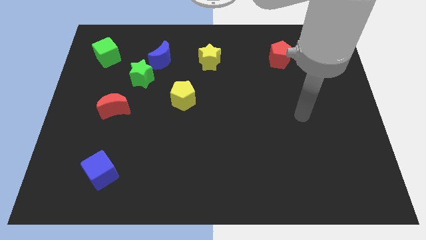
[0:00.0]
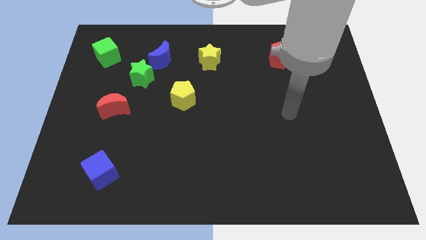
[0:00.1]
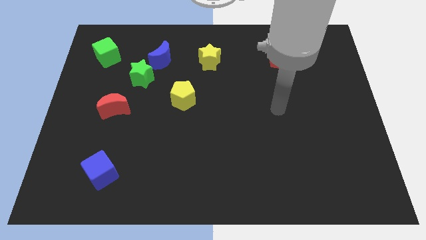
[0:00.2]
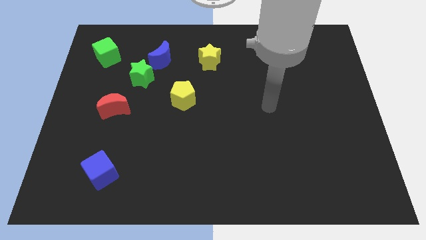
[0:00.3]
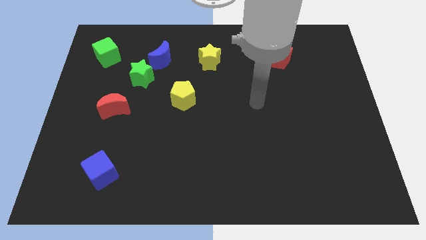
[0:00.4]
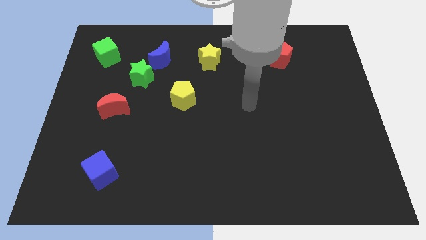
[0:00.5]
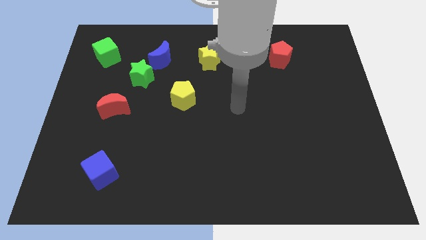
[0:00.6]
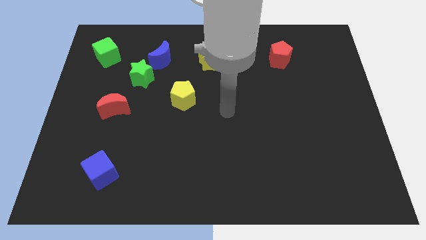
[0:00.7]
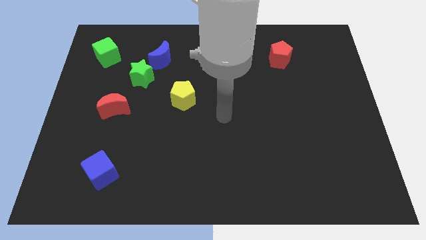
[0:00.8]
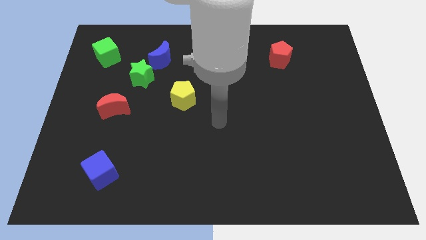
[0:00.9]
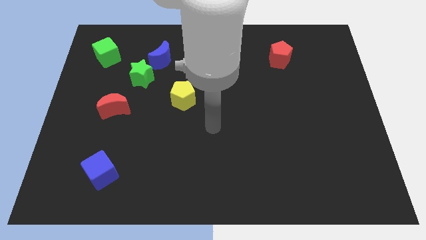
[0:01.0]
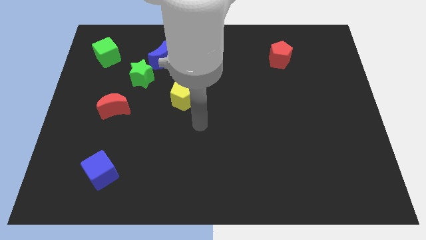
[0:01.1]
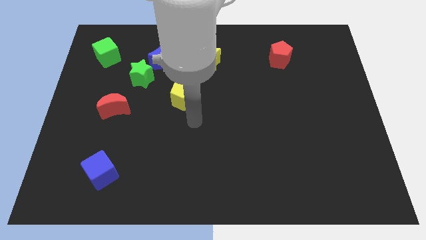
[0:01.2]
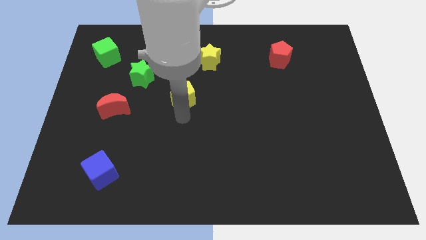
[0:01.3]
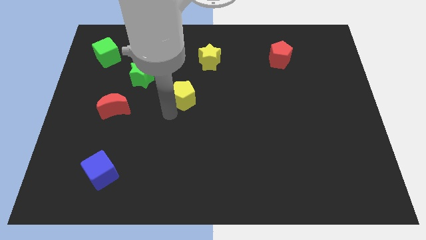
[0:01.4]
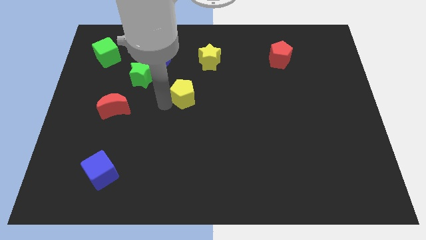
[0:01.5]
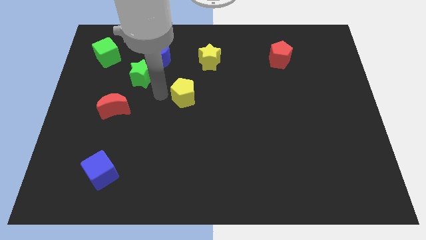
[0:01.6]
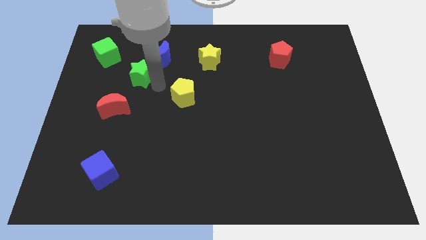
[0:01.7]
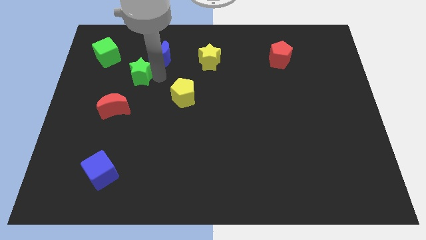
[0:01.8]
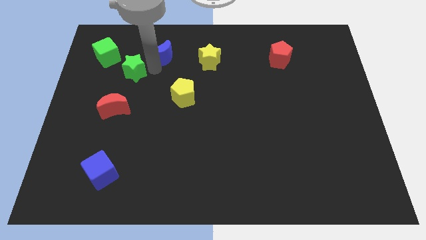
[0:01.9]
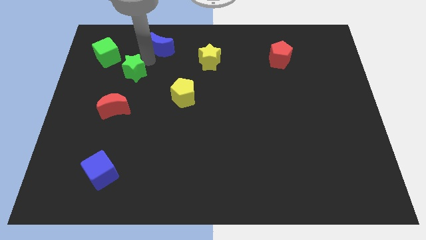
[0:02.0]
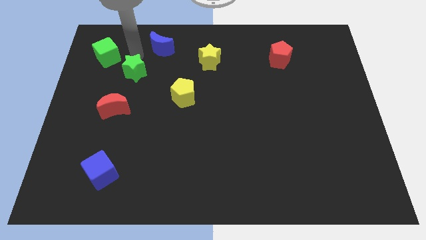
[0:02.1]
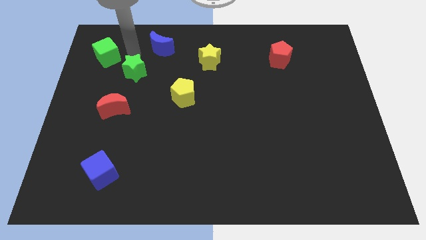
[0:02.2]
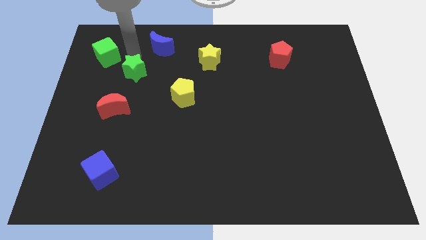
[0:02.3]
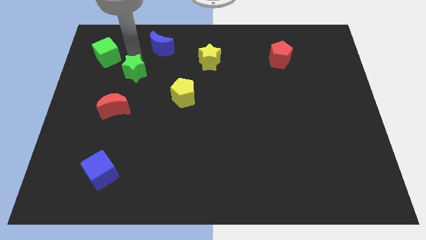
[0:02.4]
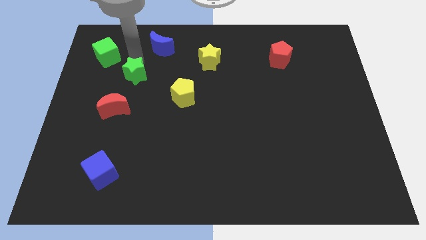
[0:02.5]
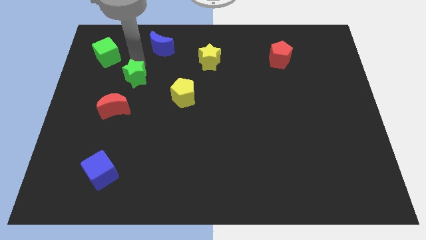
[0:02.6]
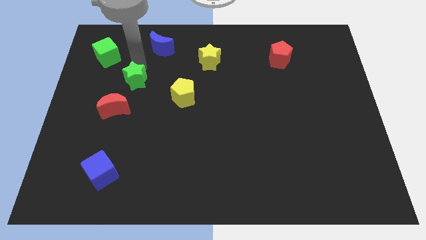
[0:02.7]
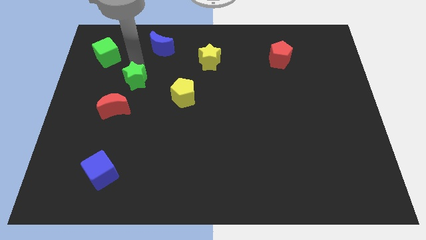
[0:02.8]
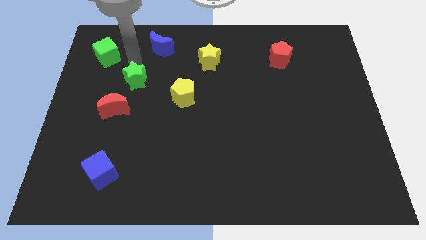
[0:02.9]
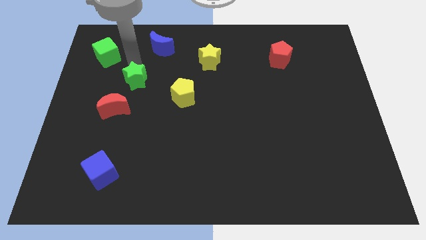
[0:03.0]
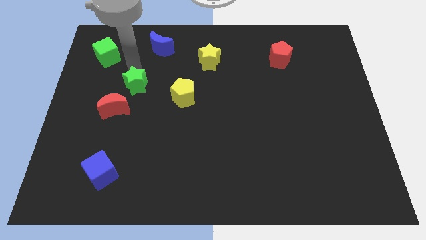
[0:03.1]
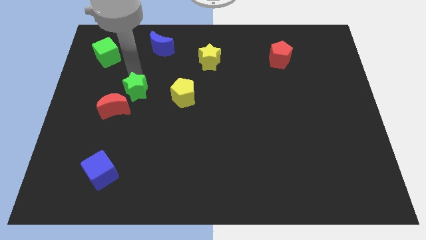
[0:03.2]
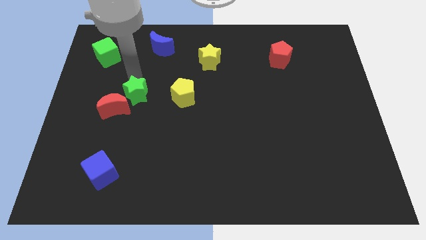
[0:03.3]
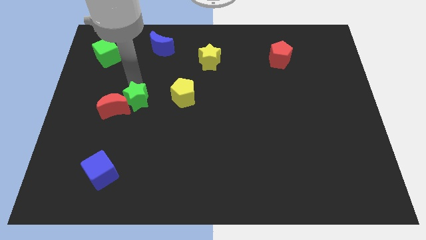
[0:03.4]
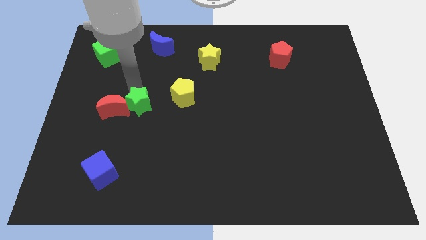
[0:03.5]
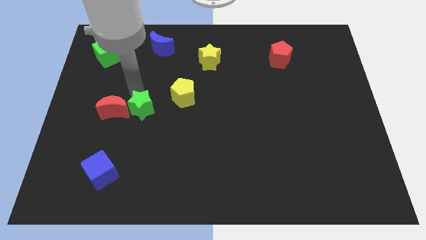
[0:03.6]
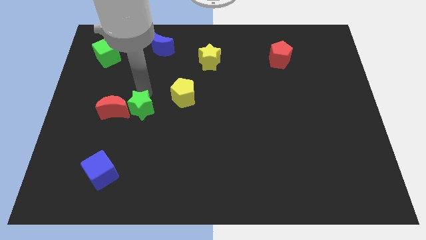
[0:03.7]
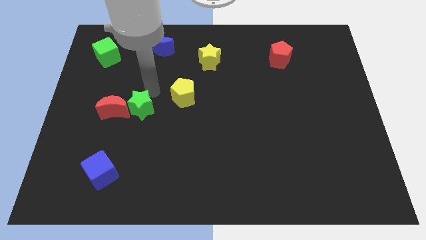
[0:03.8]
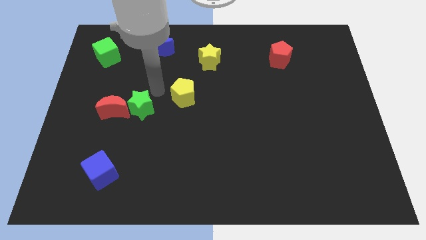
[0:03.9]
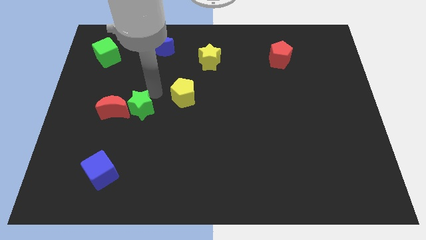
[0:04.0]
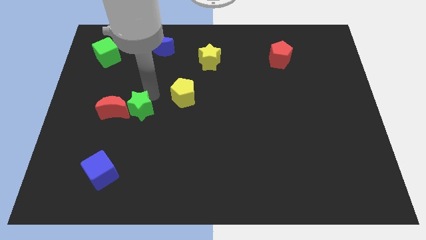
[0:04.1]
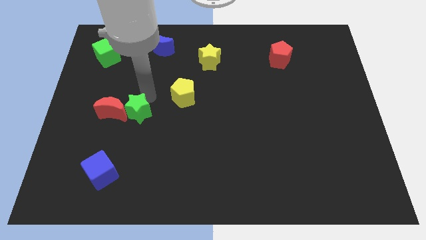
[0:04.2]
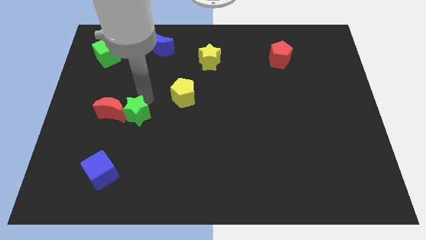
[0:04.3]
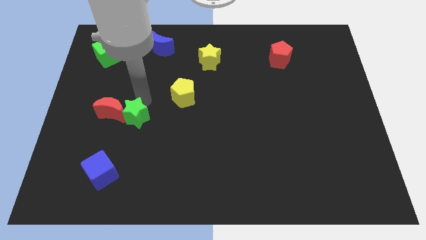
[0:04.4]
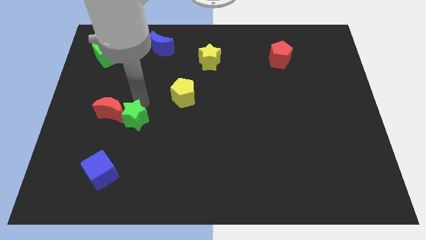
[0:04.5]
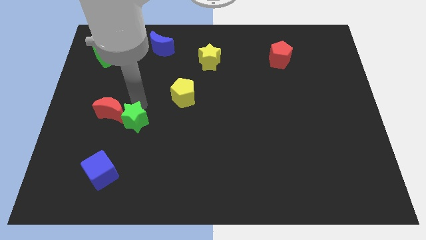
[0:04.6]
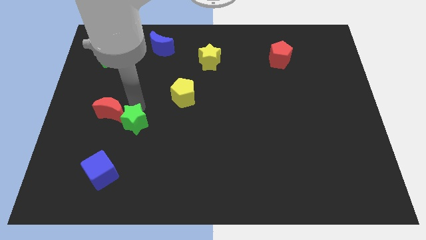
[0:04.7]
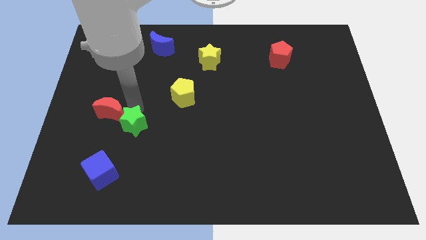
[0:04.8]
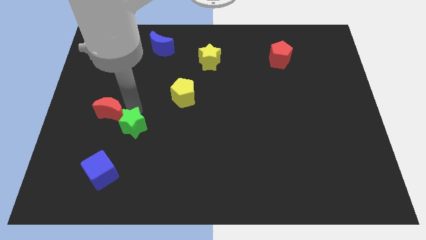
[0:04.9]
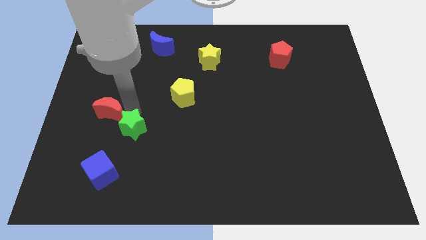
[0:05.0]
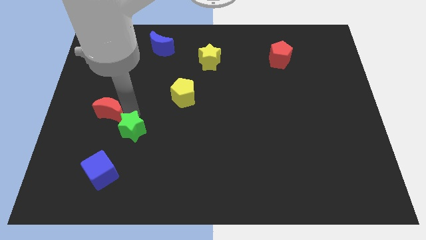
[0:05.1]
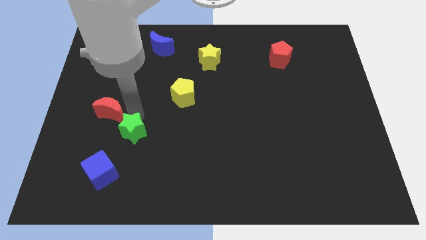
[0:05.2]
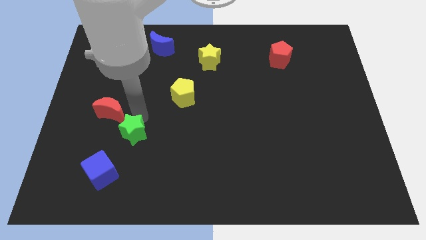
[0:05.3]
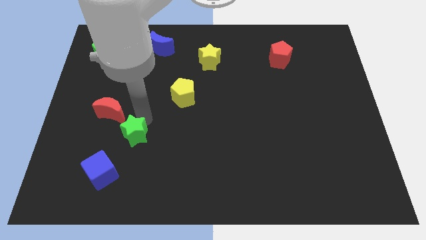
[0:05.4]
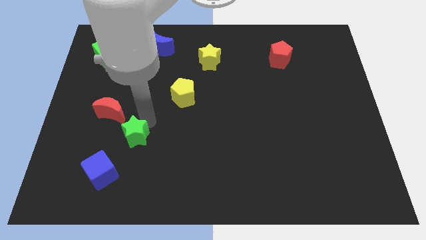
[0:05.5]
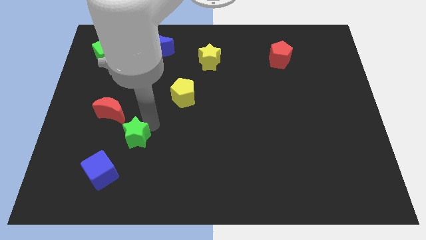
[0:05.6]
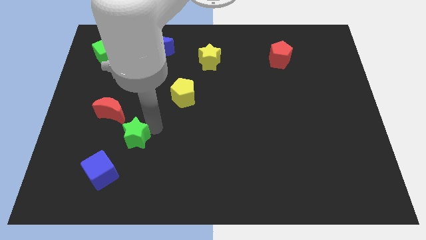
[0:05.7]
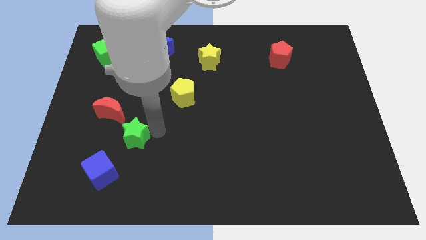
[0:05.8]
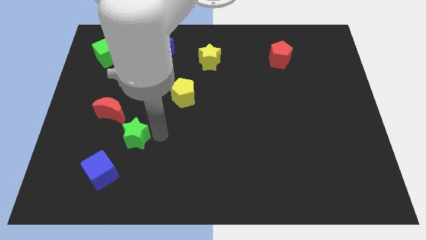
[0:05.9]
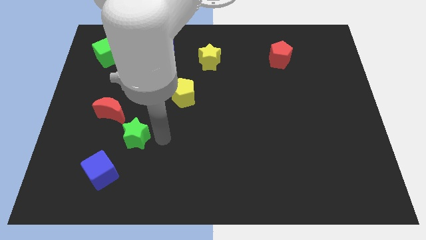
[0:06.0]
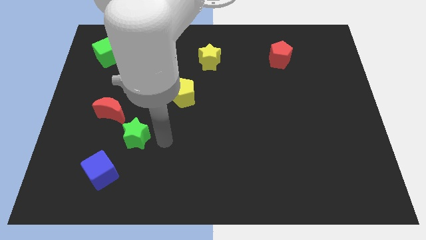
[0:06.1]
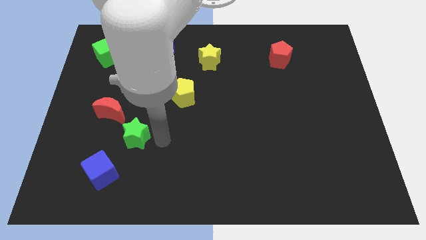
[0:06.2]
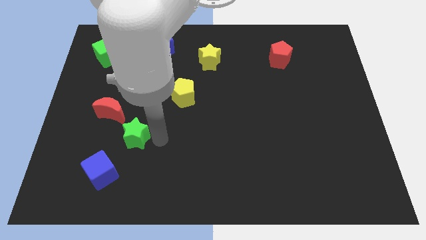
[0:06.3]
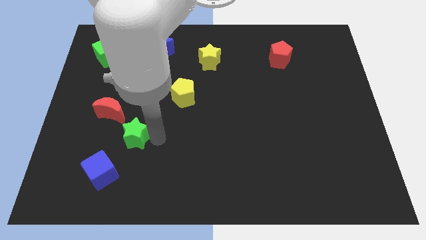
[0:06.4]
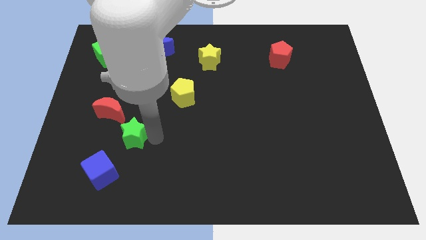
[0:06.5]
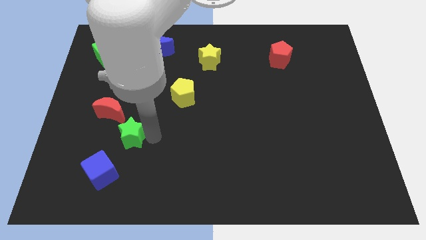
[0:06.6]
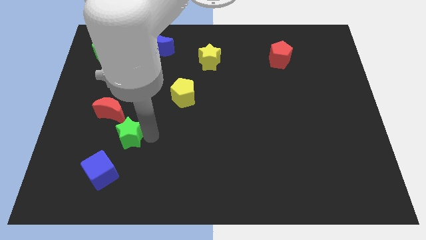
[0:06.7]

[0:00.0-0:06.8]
slide the green star below the red moon

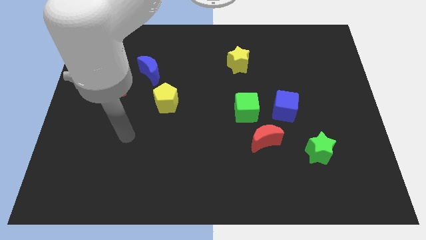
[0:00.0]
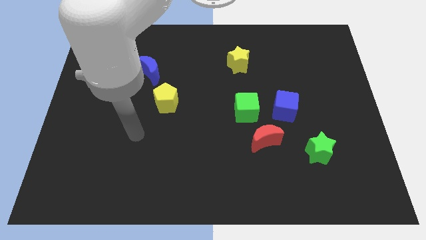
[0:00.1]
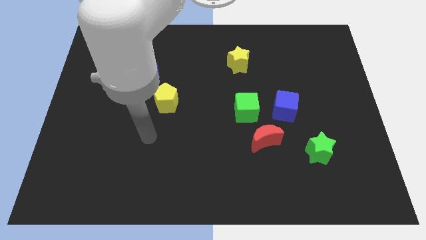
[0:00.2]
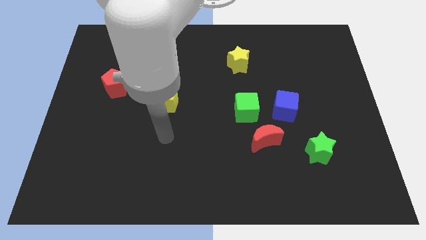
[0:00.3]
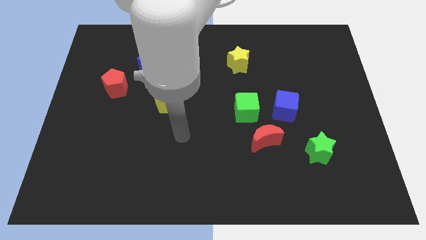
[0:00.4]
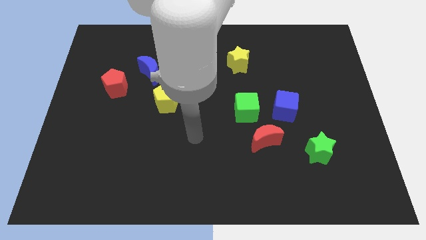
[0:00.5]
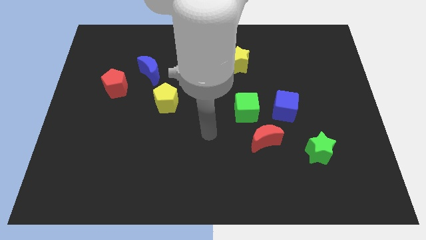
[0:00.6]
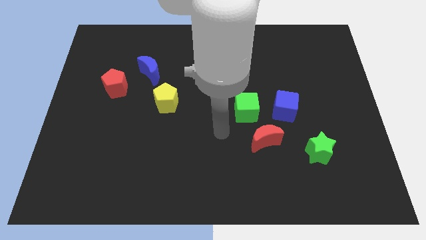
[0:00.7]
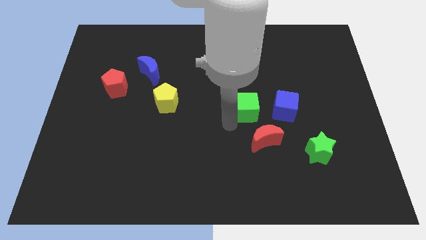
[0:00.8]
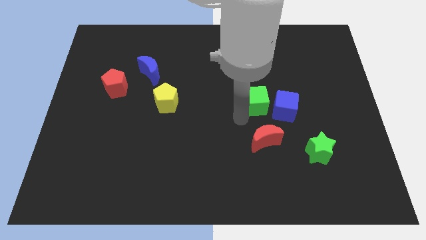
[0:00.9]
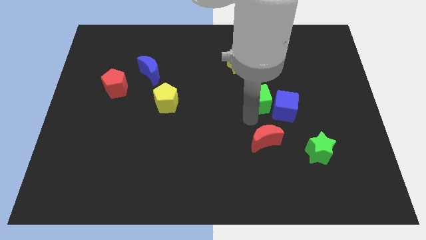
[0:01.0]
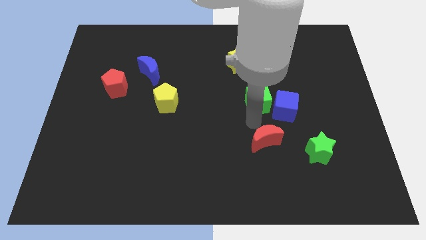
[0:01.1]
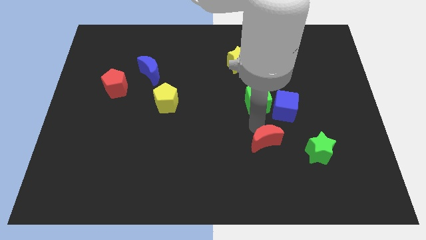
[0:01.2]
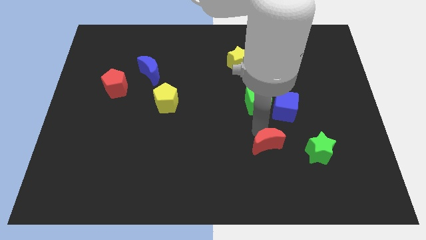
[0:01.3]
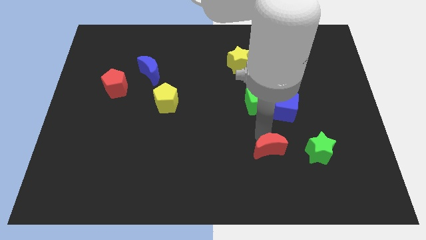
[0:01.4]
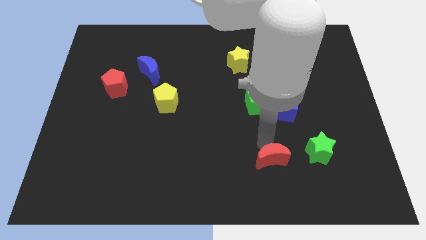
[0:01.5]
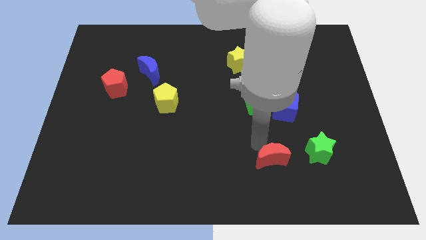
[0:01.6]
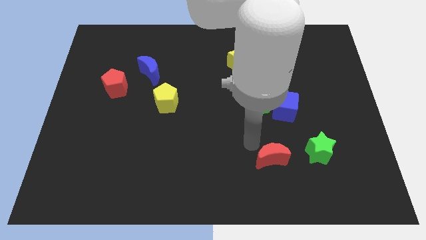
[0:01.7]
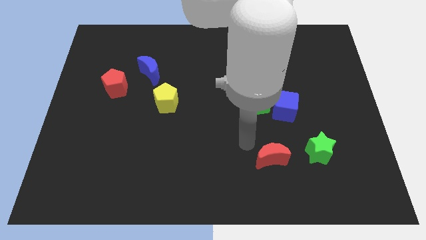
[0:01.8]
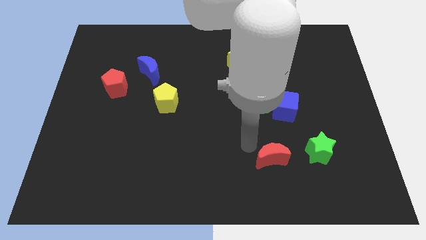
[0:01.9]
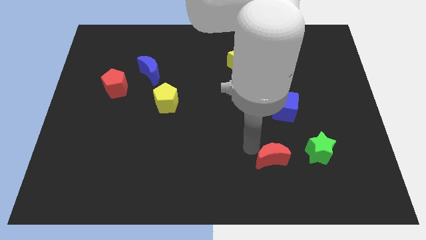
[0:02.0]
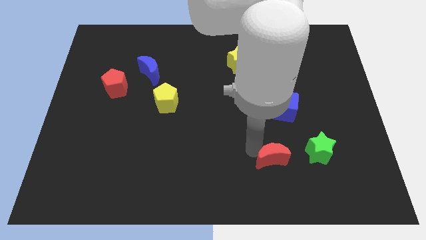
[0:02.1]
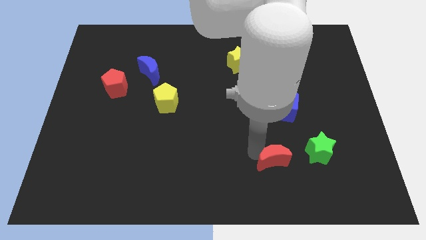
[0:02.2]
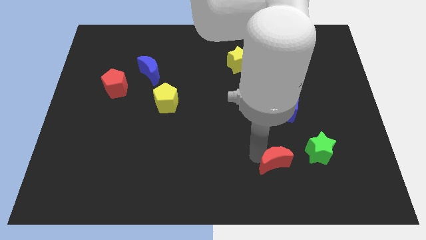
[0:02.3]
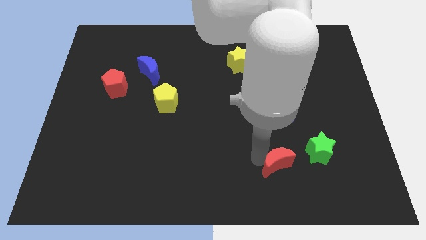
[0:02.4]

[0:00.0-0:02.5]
slide the red moon to the bottom left of the green star
